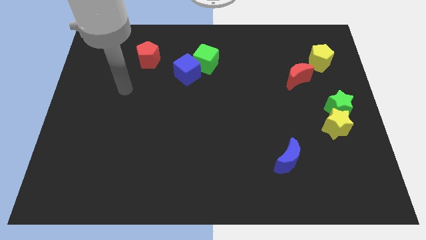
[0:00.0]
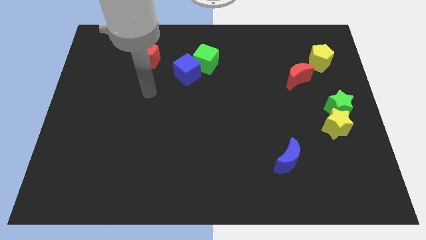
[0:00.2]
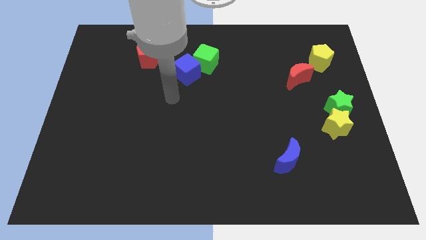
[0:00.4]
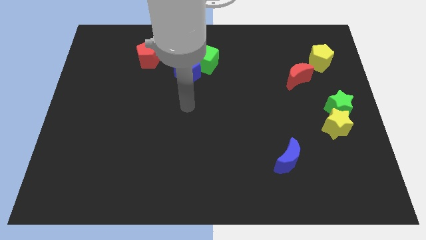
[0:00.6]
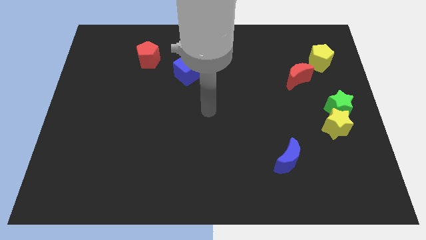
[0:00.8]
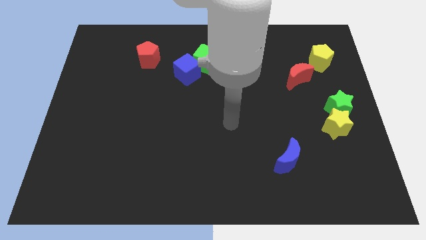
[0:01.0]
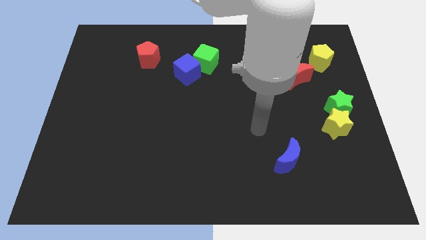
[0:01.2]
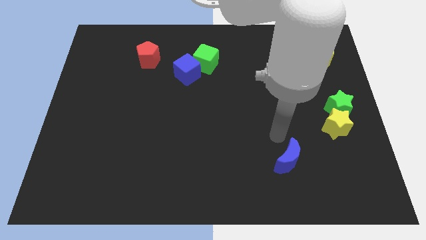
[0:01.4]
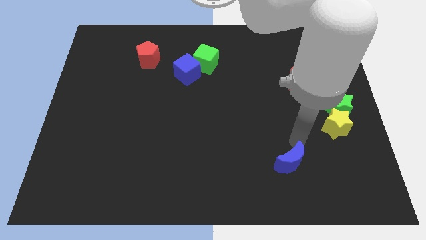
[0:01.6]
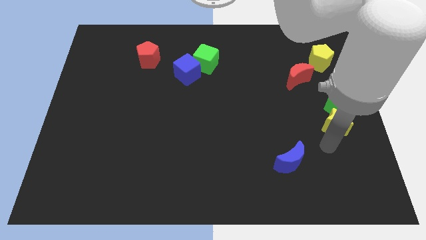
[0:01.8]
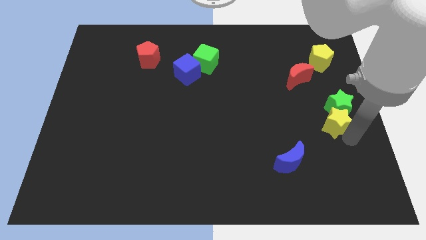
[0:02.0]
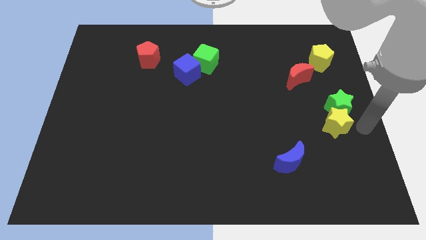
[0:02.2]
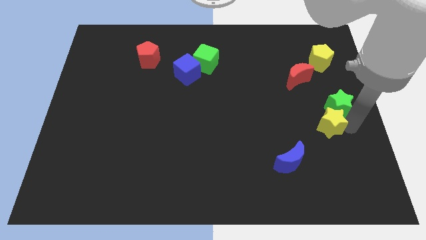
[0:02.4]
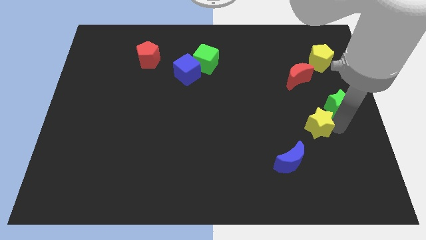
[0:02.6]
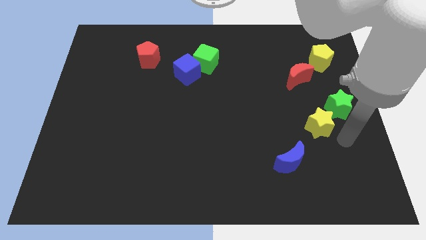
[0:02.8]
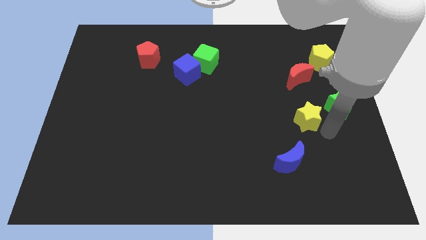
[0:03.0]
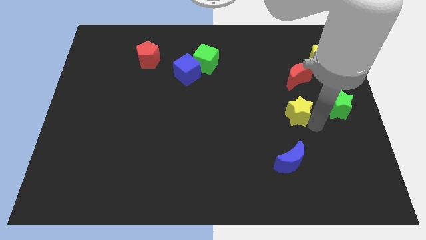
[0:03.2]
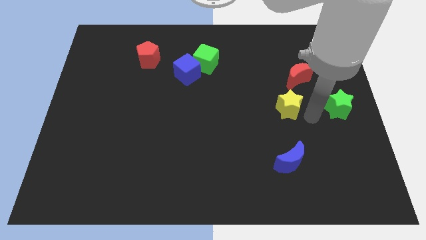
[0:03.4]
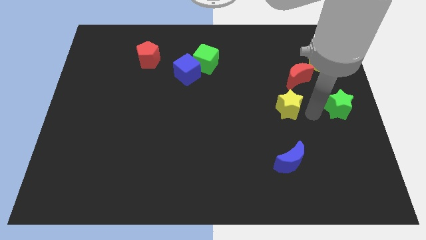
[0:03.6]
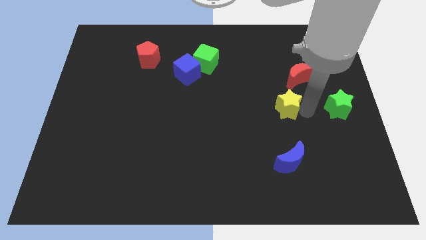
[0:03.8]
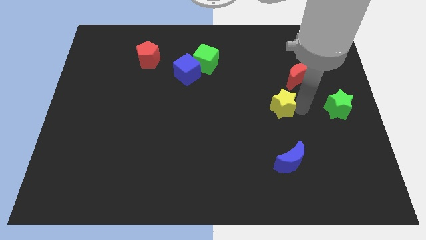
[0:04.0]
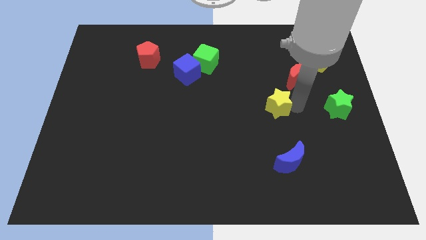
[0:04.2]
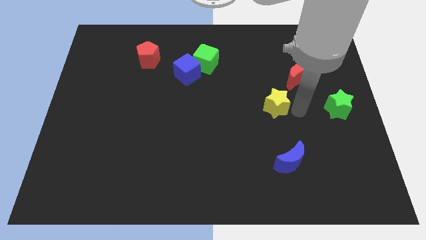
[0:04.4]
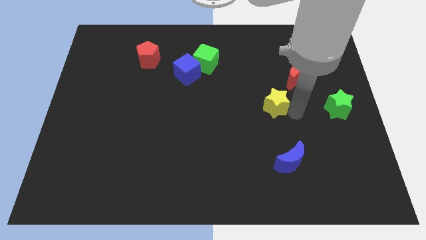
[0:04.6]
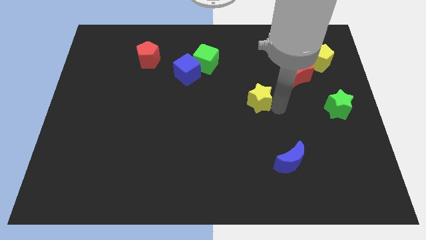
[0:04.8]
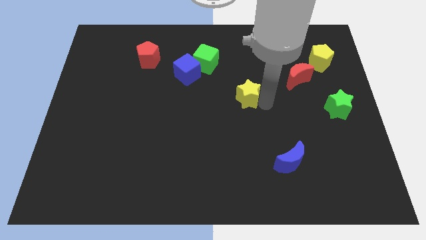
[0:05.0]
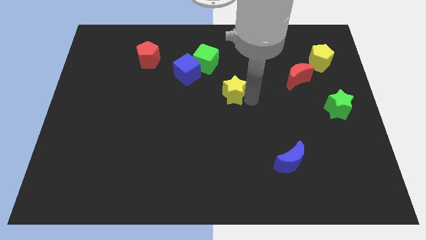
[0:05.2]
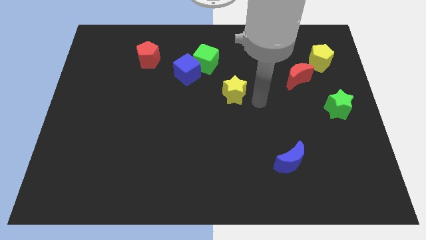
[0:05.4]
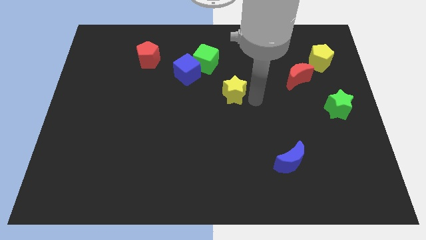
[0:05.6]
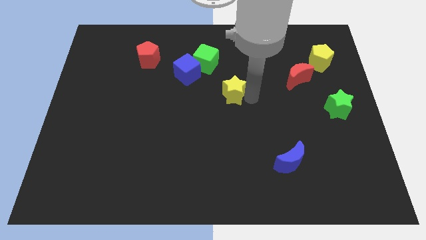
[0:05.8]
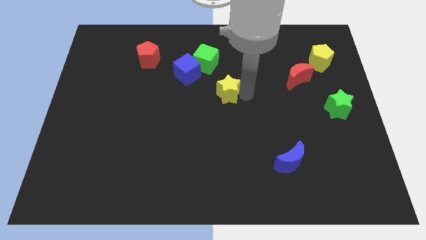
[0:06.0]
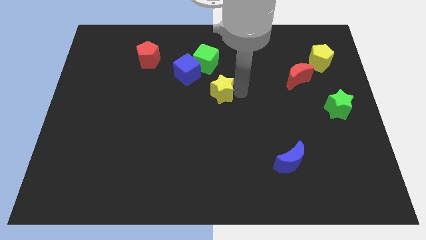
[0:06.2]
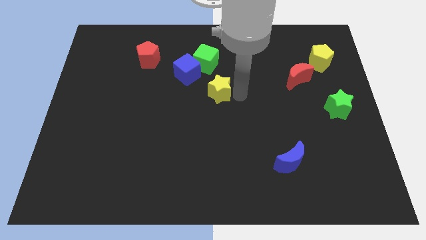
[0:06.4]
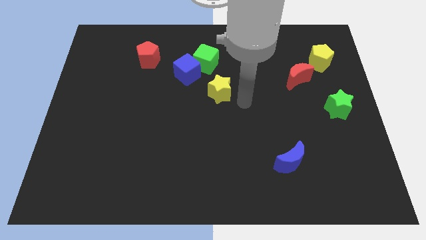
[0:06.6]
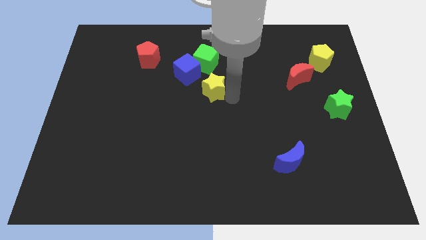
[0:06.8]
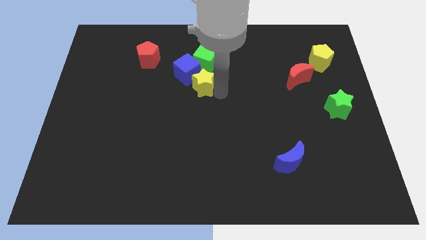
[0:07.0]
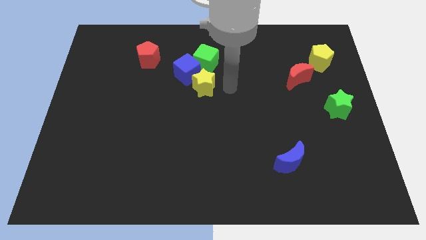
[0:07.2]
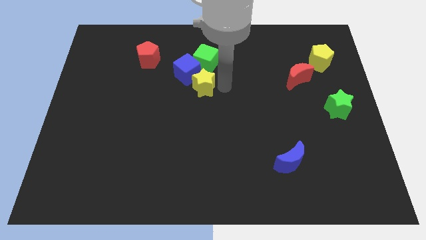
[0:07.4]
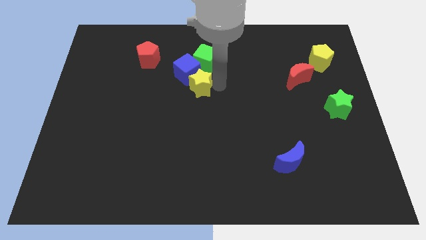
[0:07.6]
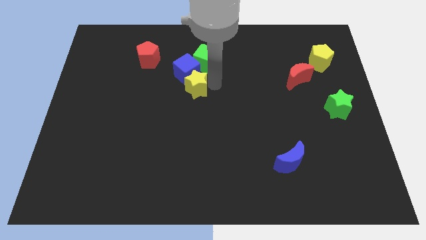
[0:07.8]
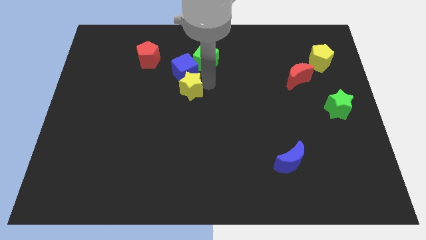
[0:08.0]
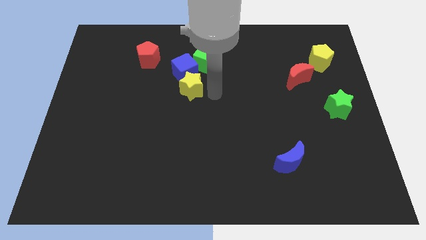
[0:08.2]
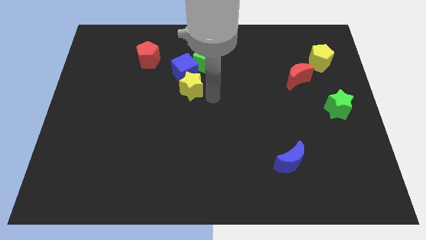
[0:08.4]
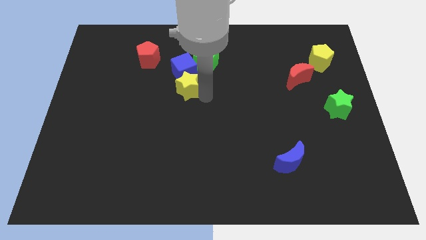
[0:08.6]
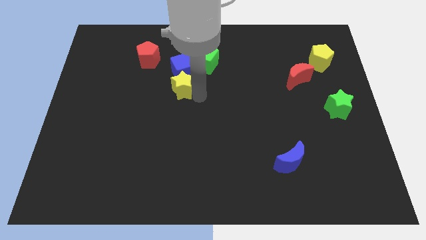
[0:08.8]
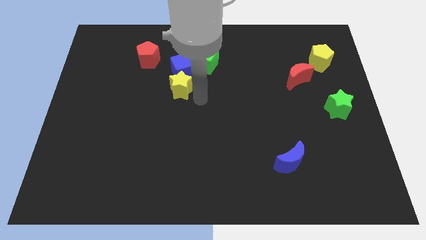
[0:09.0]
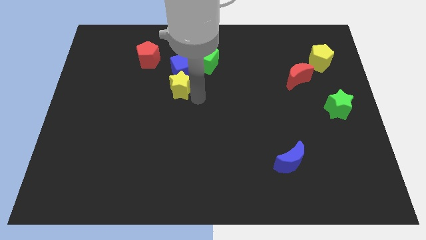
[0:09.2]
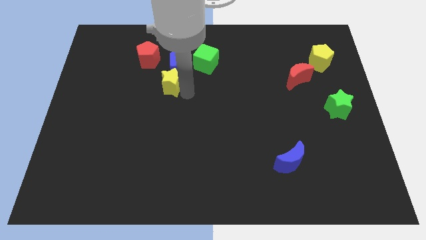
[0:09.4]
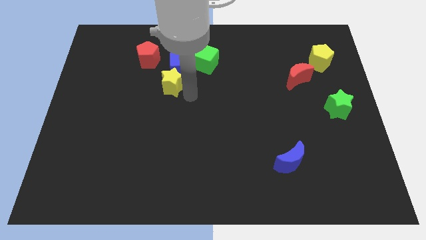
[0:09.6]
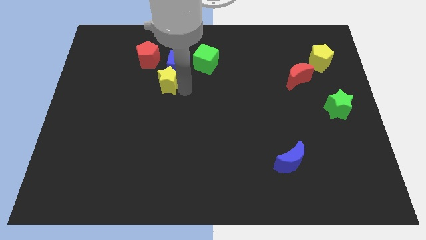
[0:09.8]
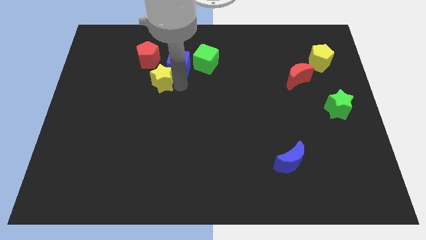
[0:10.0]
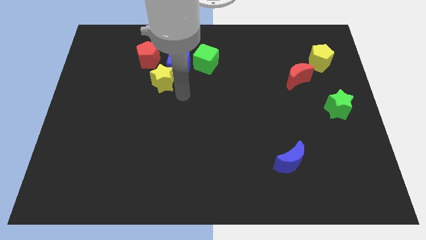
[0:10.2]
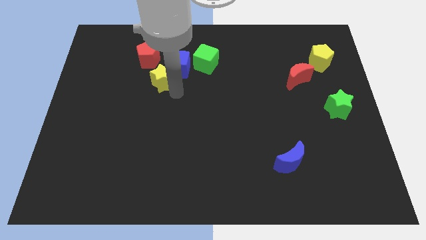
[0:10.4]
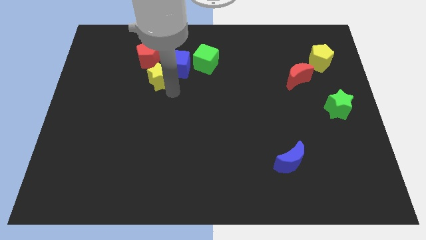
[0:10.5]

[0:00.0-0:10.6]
push the yellow star to the left of the blue cube

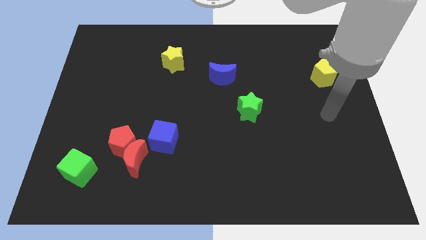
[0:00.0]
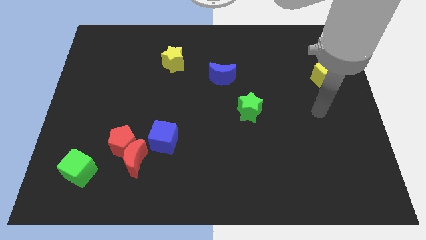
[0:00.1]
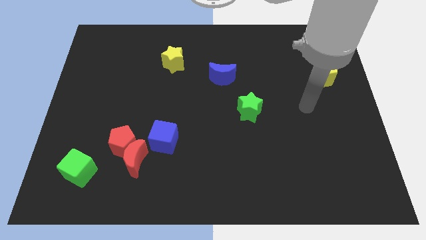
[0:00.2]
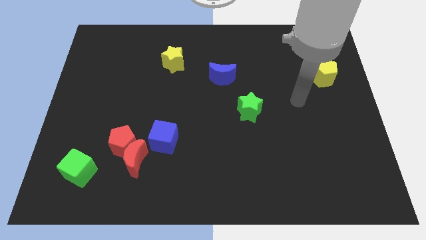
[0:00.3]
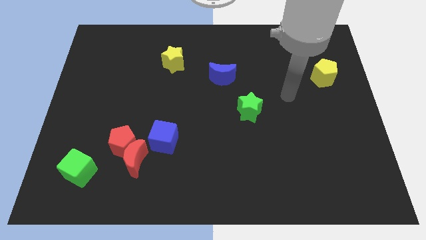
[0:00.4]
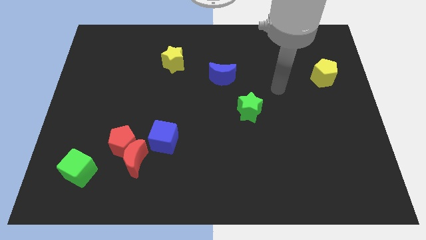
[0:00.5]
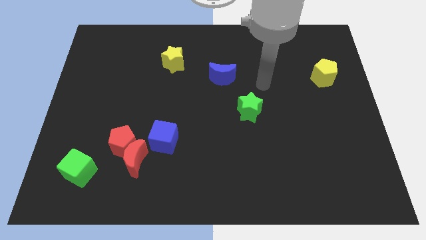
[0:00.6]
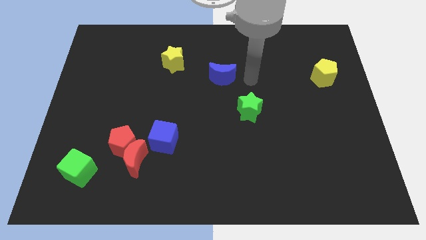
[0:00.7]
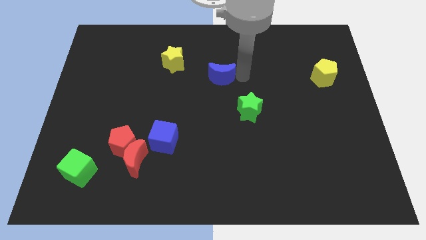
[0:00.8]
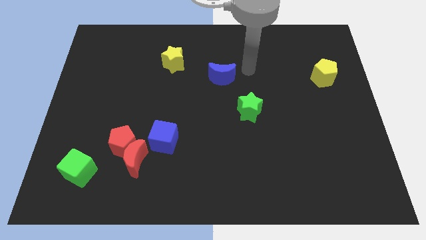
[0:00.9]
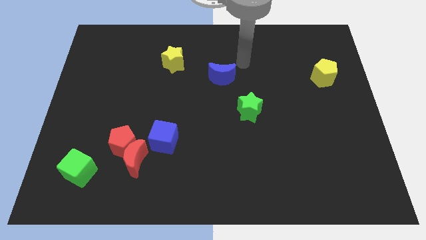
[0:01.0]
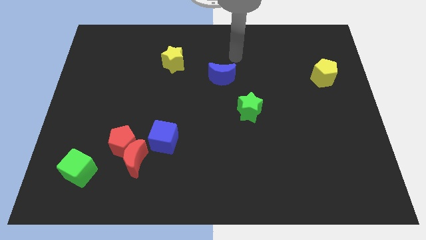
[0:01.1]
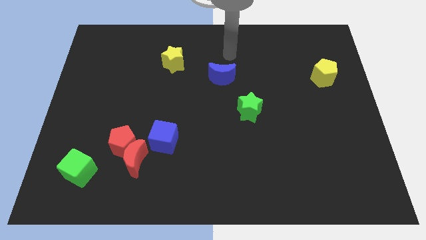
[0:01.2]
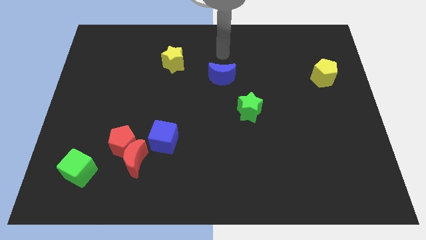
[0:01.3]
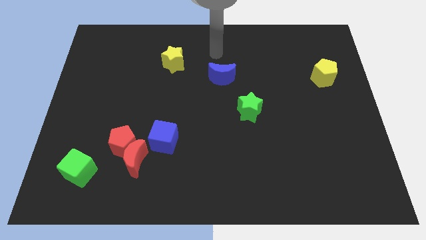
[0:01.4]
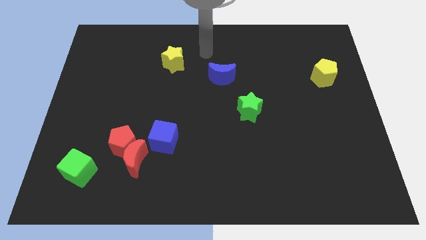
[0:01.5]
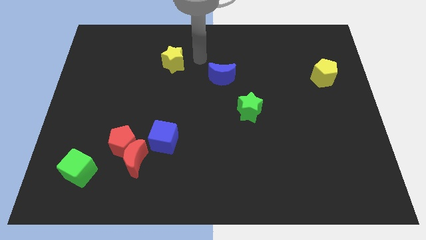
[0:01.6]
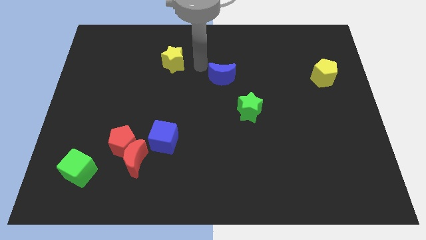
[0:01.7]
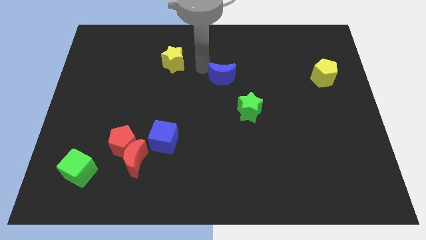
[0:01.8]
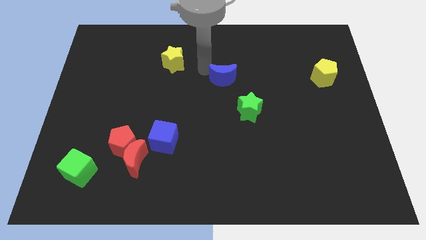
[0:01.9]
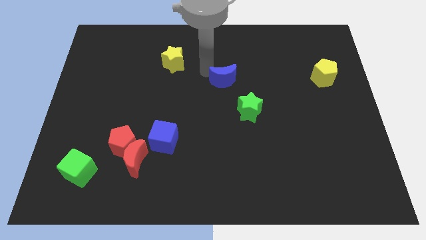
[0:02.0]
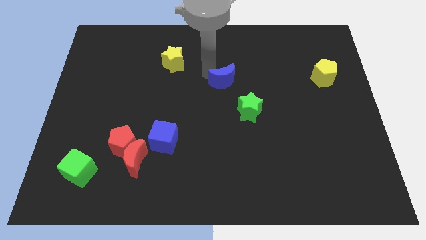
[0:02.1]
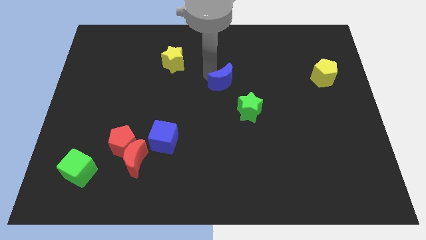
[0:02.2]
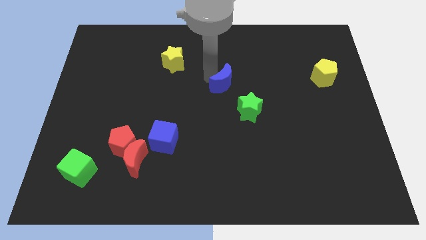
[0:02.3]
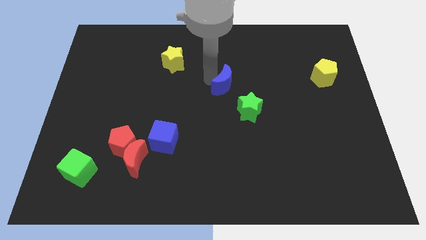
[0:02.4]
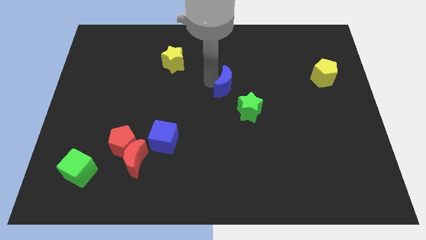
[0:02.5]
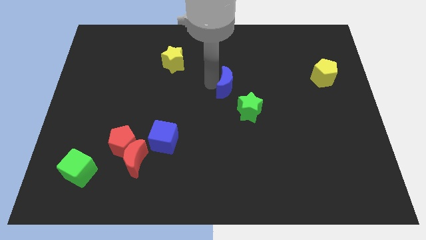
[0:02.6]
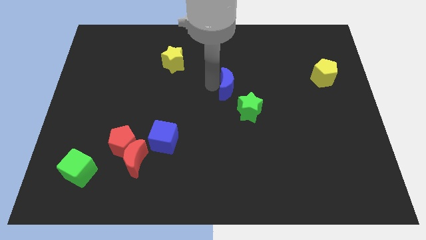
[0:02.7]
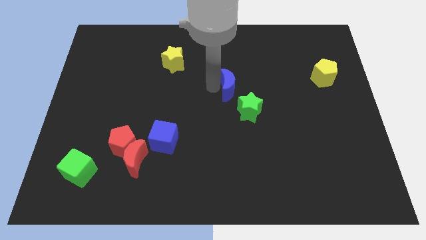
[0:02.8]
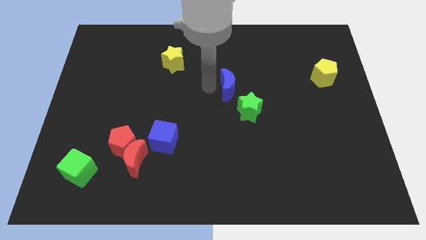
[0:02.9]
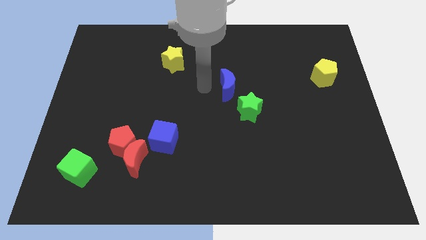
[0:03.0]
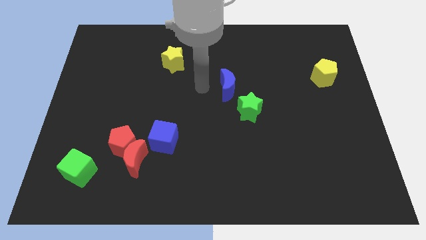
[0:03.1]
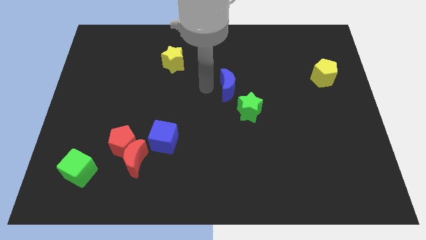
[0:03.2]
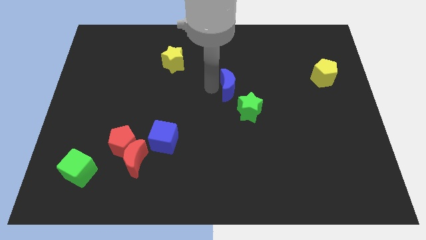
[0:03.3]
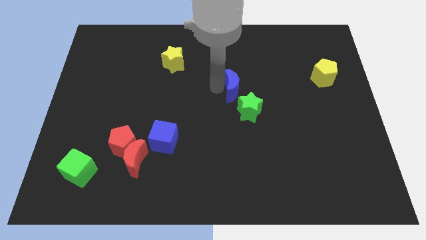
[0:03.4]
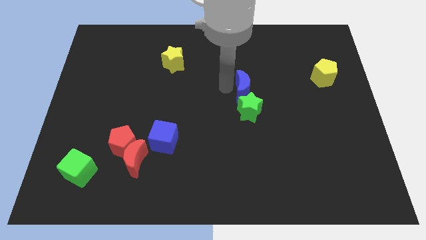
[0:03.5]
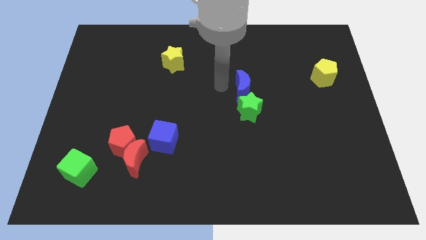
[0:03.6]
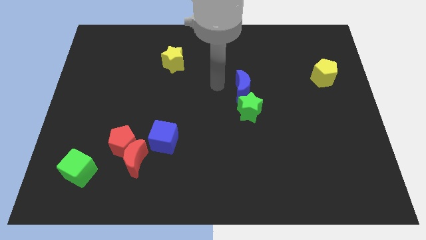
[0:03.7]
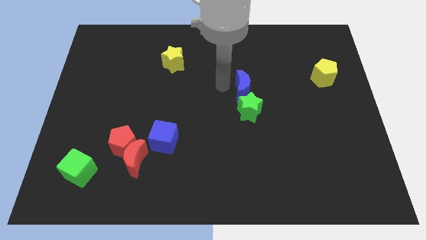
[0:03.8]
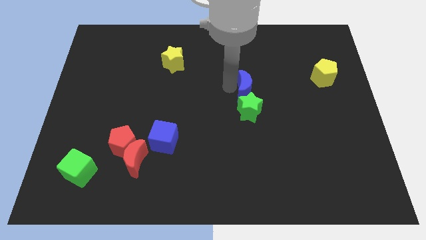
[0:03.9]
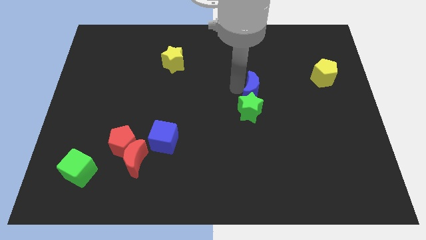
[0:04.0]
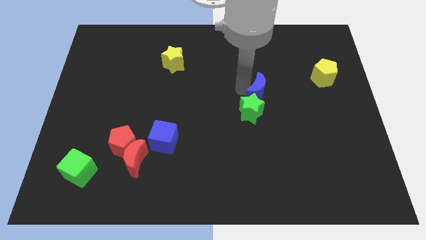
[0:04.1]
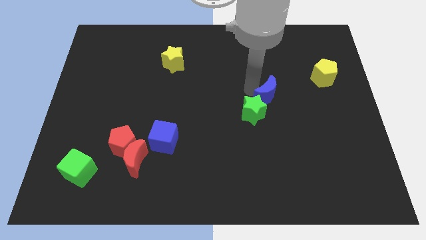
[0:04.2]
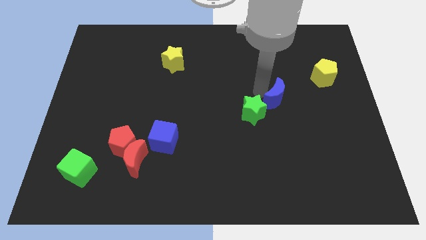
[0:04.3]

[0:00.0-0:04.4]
push the blue moon just right of the green star
